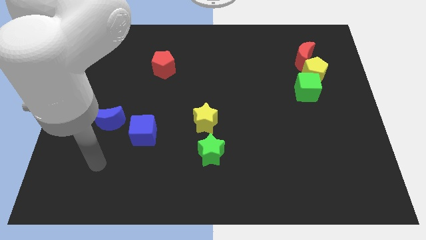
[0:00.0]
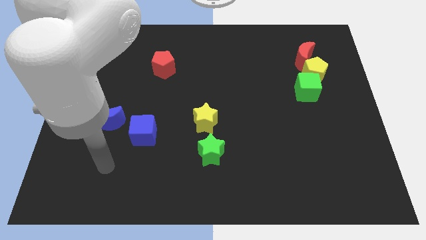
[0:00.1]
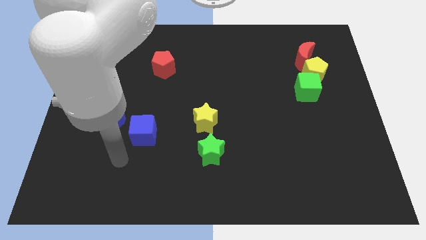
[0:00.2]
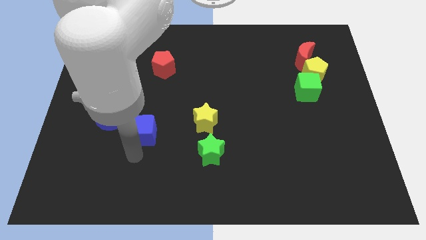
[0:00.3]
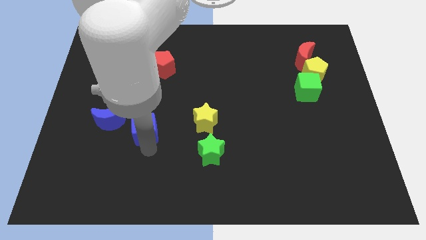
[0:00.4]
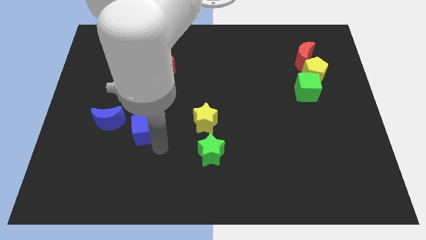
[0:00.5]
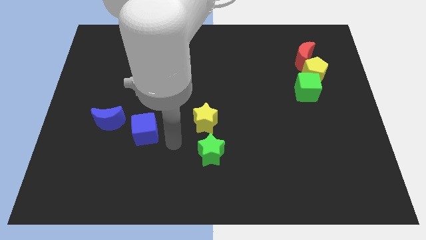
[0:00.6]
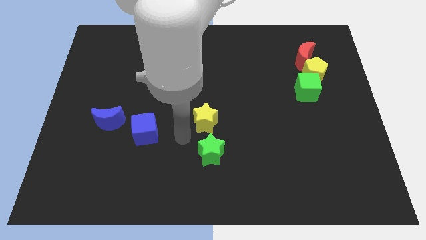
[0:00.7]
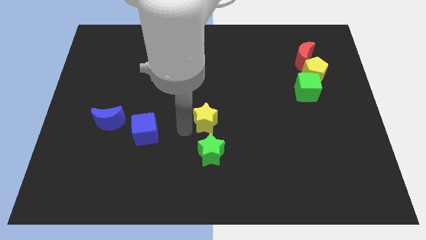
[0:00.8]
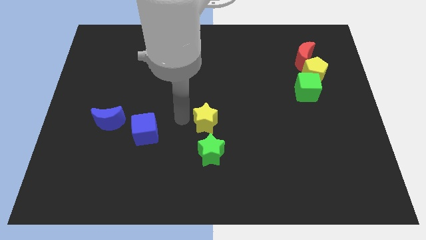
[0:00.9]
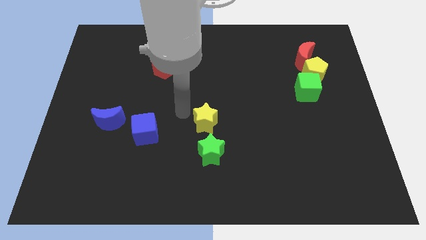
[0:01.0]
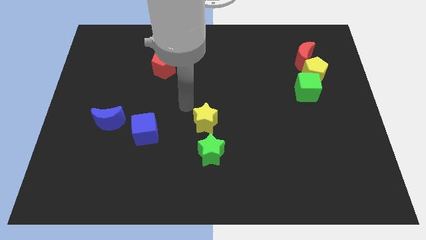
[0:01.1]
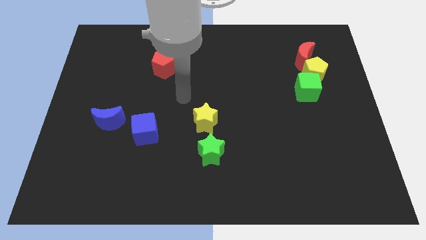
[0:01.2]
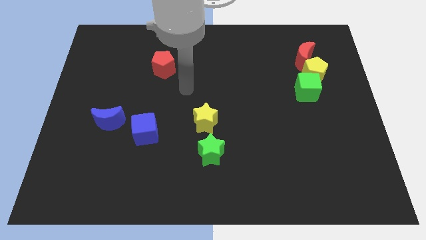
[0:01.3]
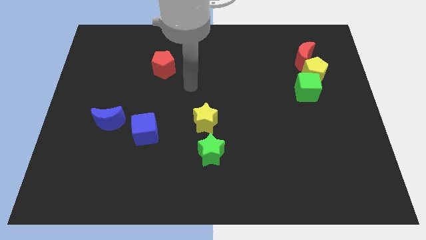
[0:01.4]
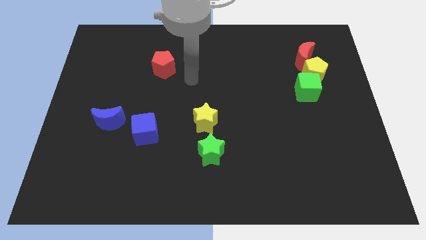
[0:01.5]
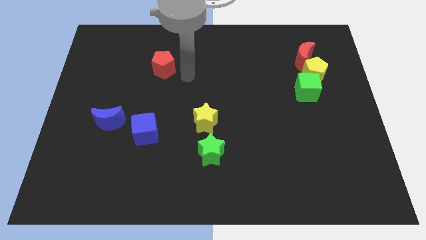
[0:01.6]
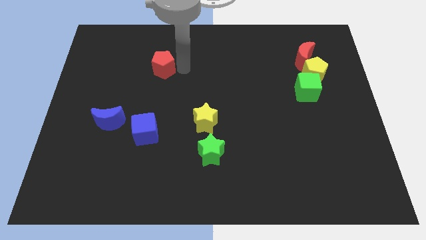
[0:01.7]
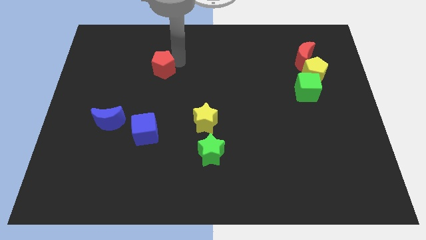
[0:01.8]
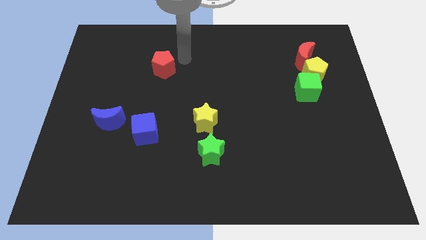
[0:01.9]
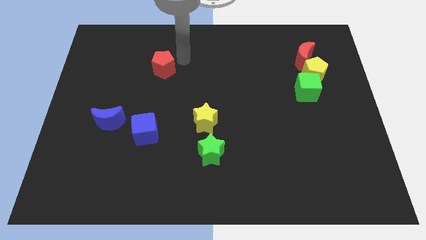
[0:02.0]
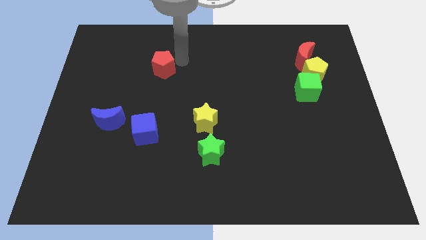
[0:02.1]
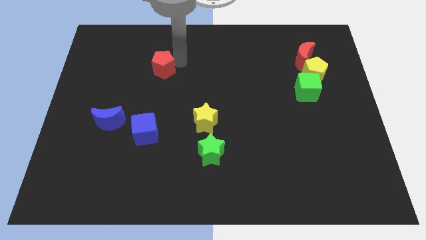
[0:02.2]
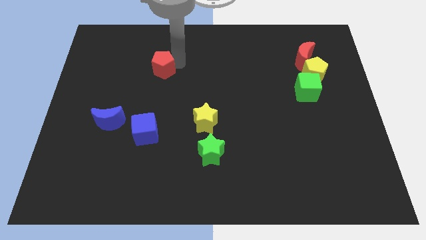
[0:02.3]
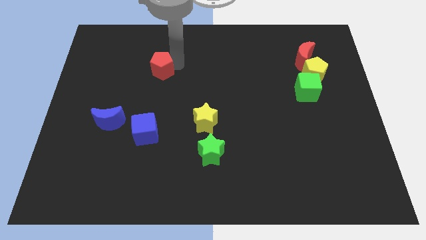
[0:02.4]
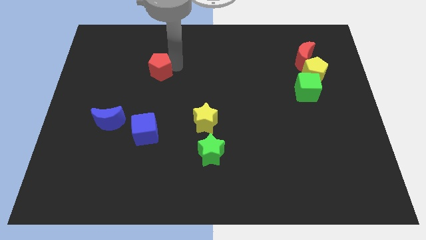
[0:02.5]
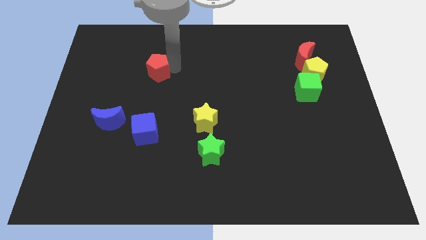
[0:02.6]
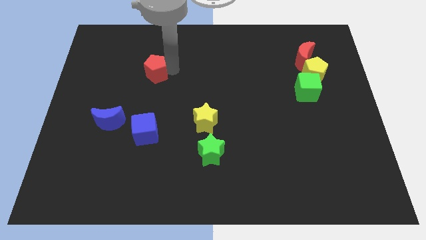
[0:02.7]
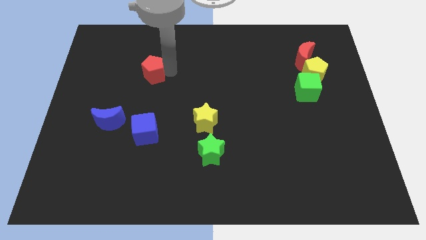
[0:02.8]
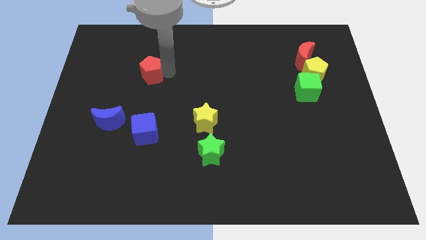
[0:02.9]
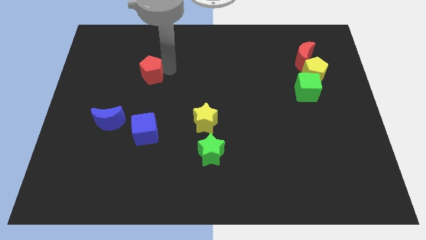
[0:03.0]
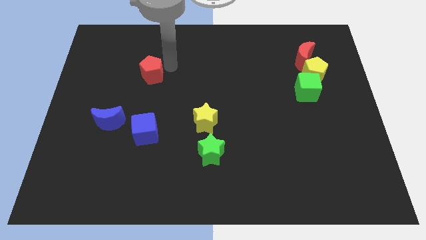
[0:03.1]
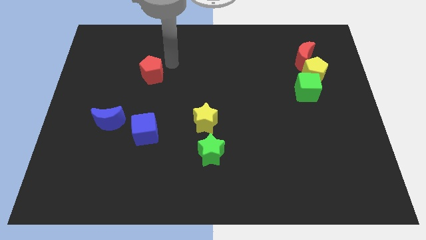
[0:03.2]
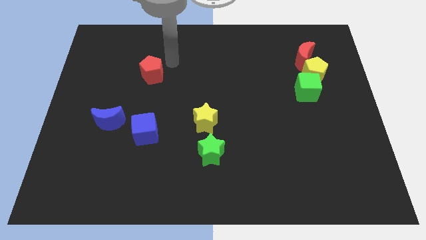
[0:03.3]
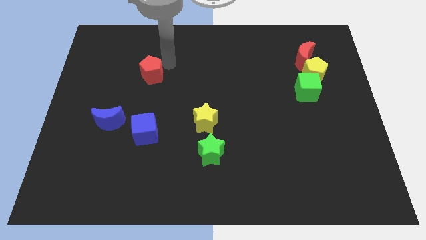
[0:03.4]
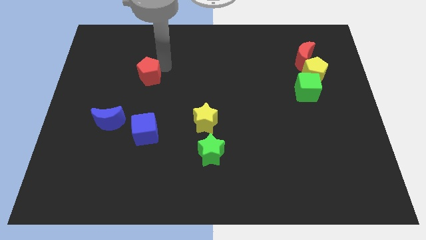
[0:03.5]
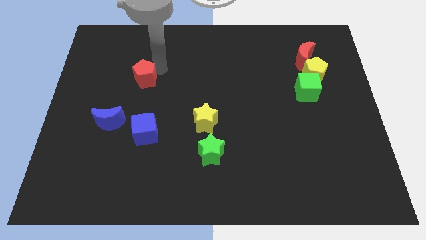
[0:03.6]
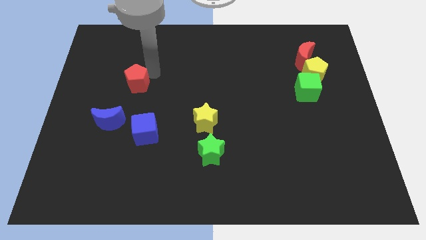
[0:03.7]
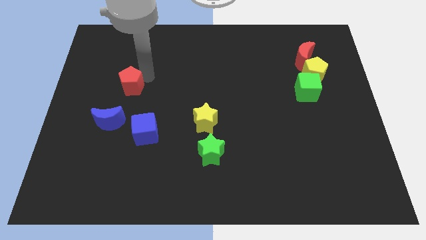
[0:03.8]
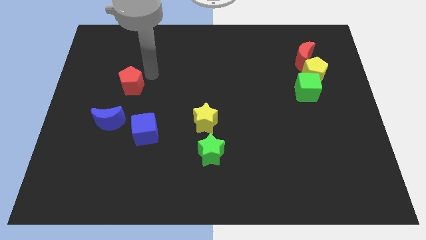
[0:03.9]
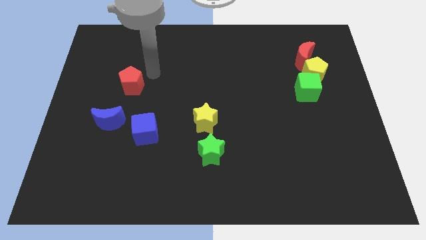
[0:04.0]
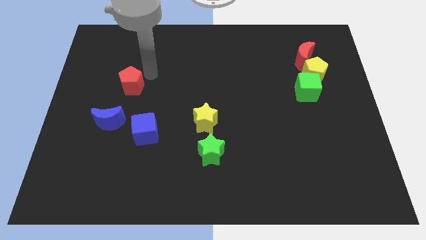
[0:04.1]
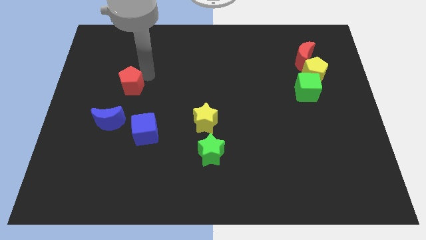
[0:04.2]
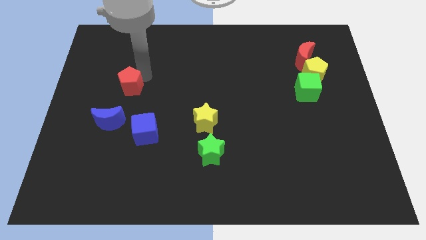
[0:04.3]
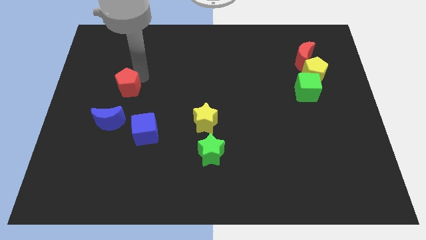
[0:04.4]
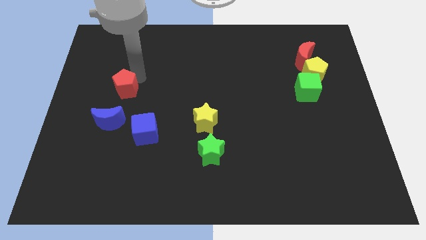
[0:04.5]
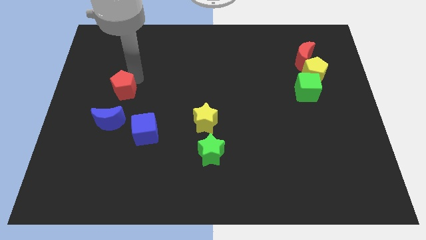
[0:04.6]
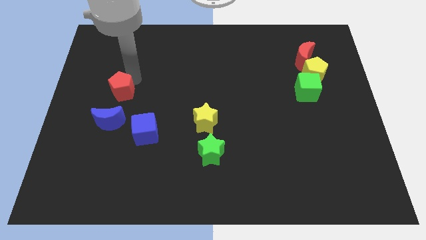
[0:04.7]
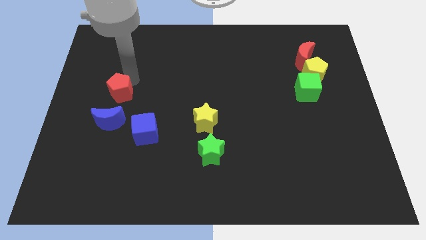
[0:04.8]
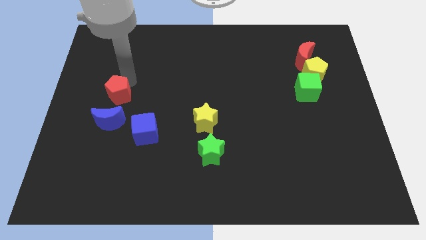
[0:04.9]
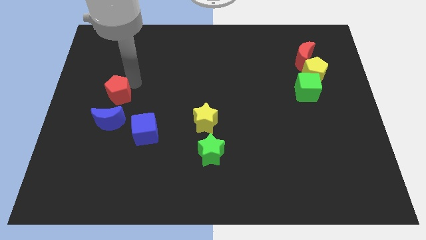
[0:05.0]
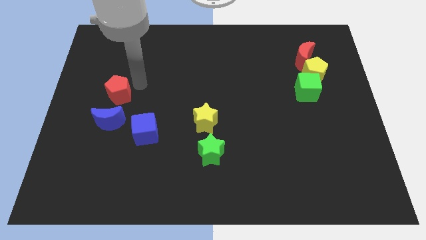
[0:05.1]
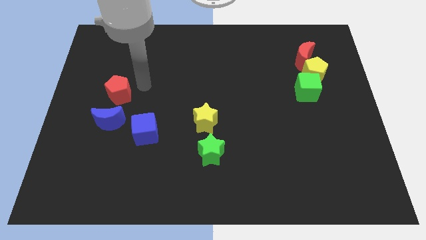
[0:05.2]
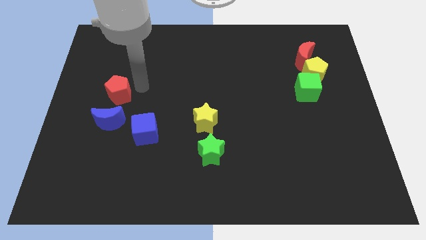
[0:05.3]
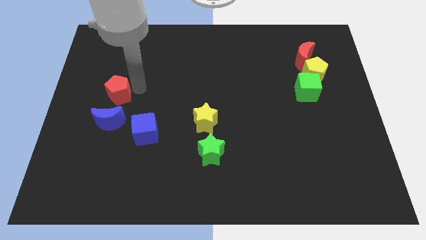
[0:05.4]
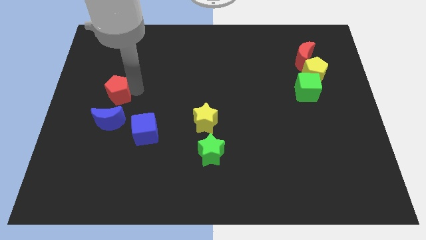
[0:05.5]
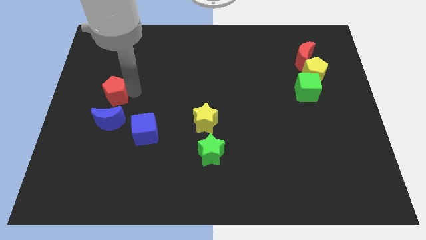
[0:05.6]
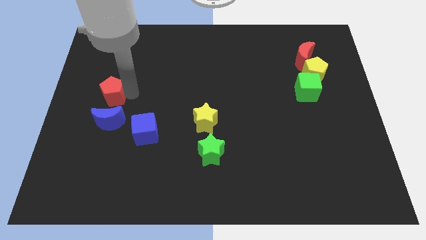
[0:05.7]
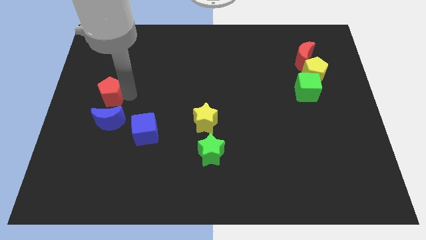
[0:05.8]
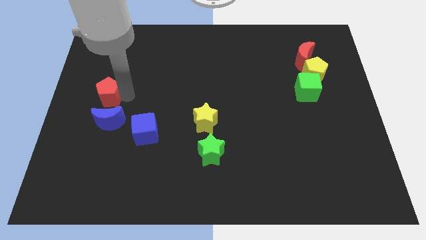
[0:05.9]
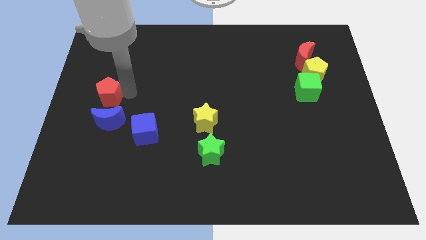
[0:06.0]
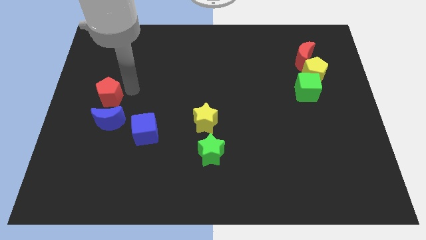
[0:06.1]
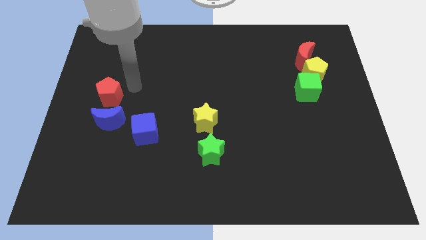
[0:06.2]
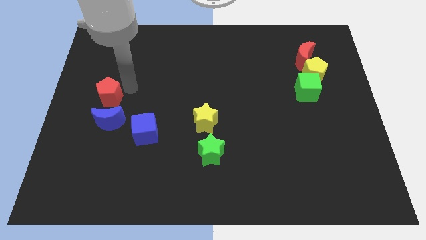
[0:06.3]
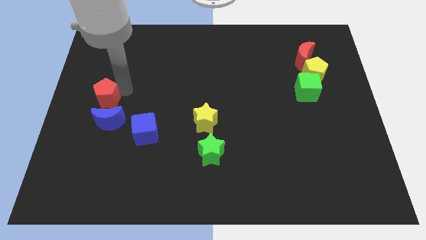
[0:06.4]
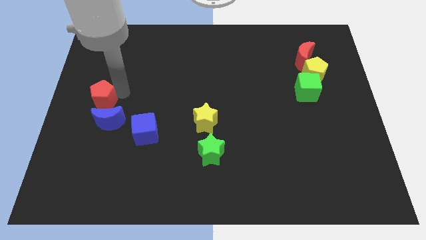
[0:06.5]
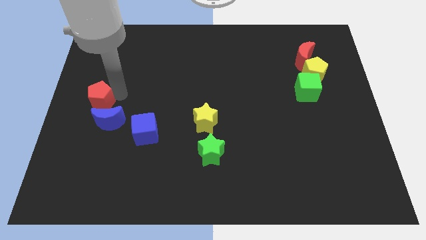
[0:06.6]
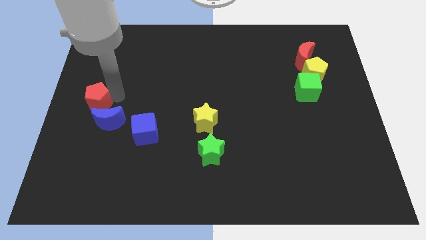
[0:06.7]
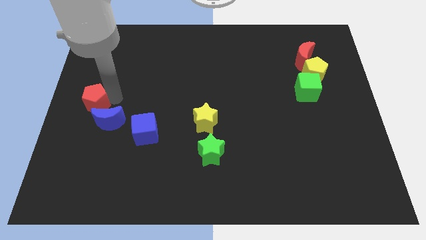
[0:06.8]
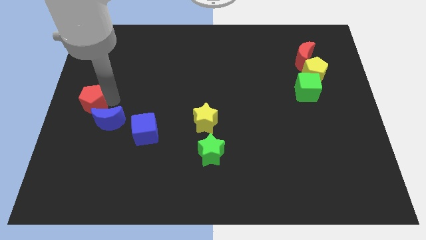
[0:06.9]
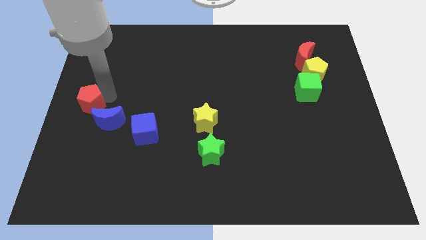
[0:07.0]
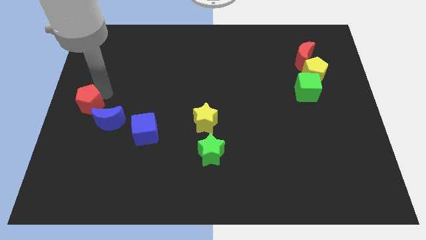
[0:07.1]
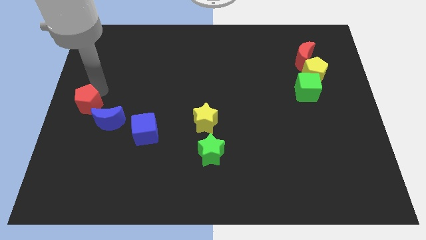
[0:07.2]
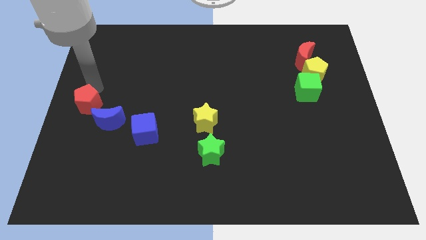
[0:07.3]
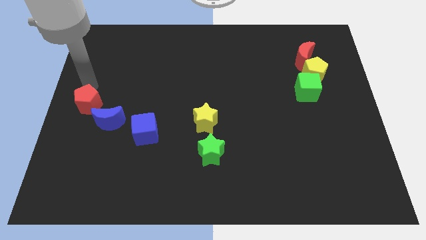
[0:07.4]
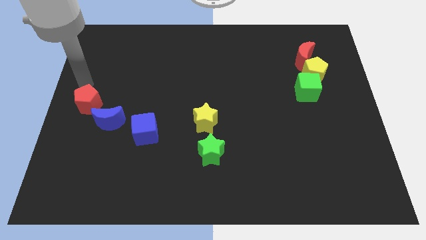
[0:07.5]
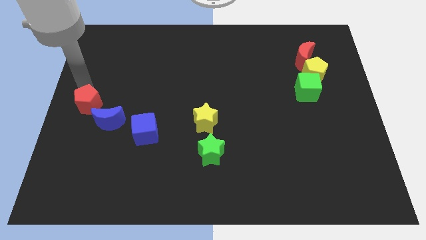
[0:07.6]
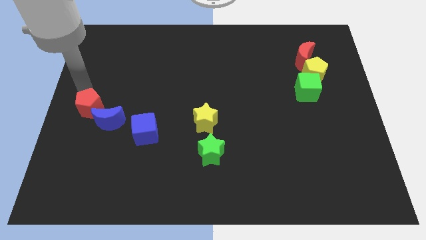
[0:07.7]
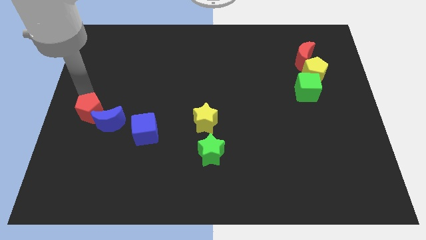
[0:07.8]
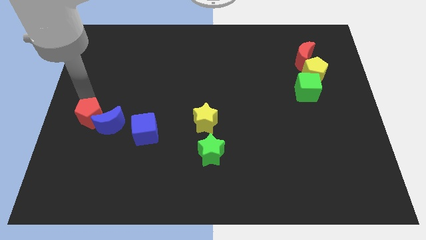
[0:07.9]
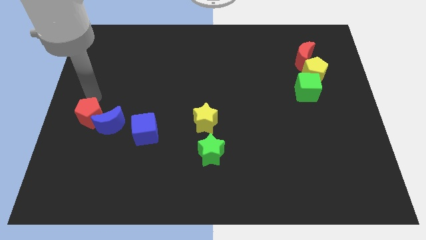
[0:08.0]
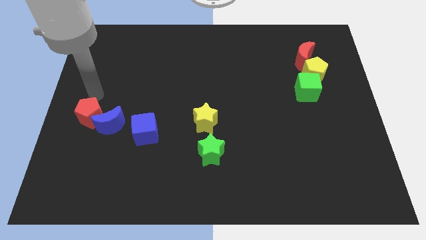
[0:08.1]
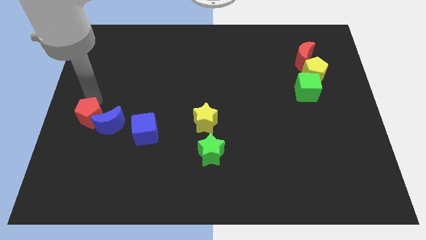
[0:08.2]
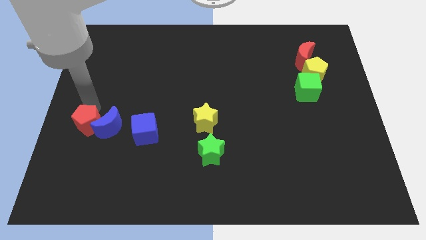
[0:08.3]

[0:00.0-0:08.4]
move the red pentagon diagonally down and to the left of the blue moon
